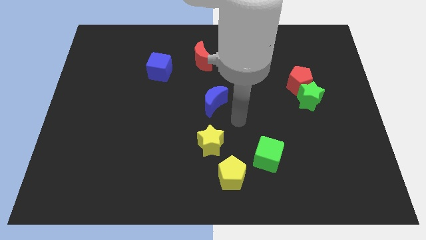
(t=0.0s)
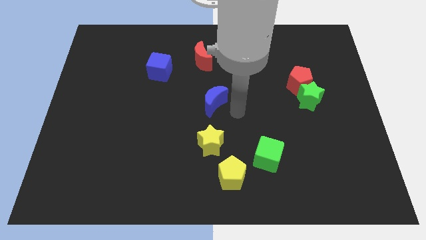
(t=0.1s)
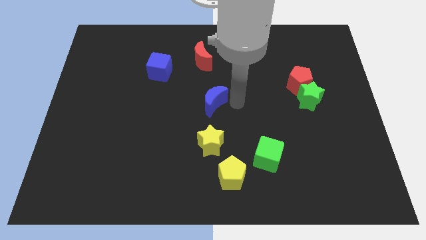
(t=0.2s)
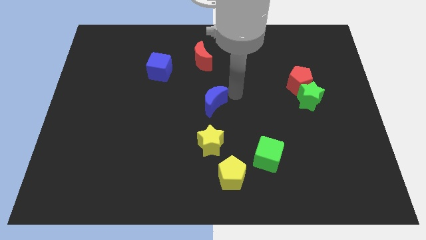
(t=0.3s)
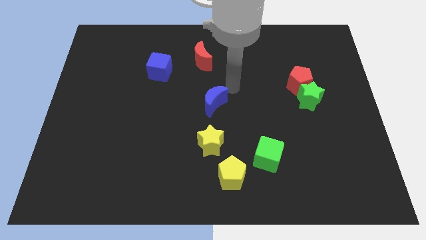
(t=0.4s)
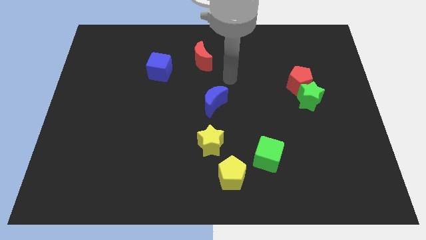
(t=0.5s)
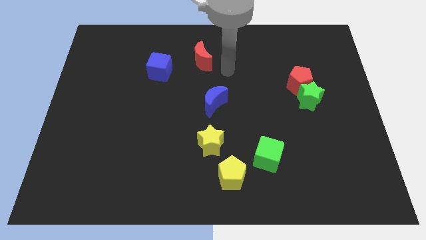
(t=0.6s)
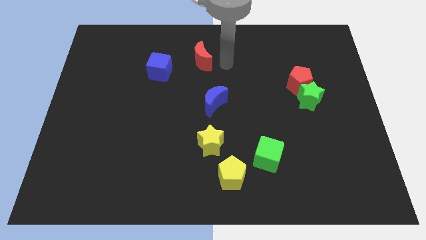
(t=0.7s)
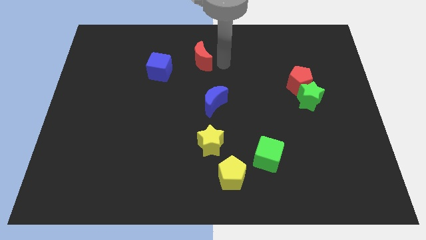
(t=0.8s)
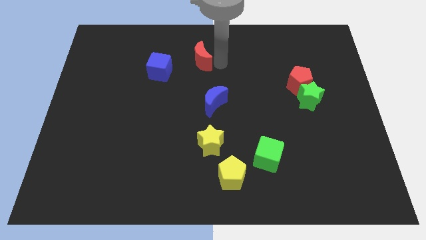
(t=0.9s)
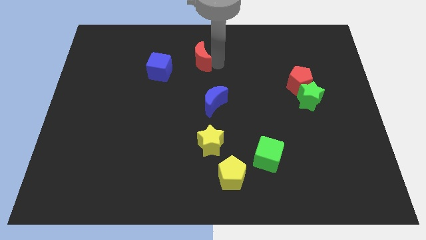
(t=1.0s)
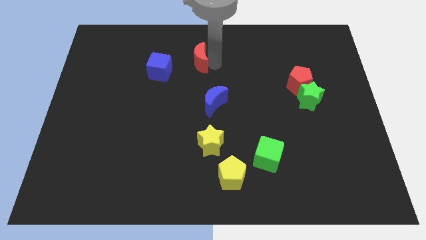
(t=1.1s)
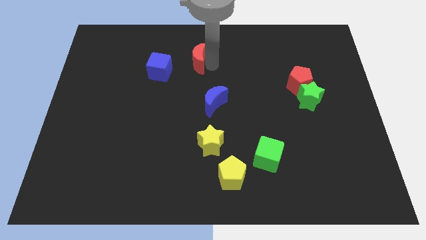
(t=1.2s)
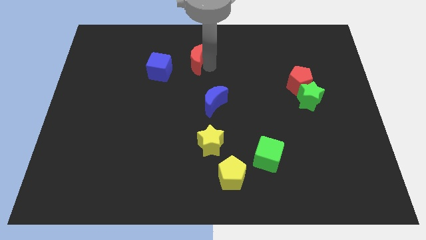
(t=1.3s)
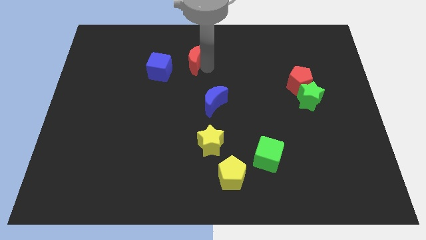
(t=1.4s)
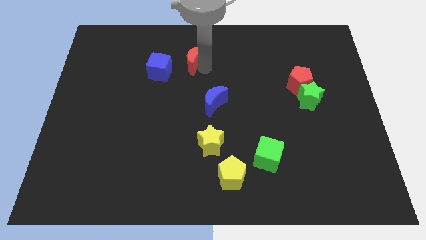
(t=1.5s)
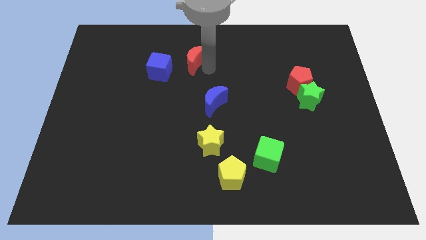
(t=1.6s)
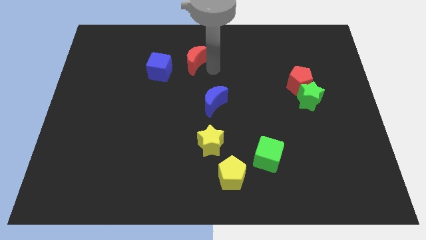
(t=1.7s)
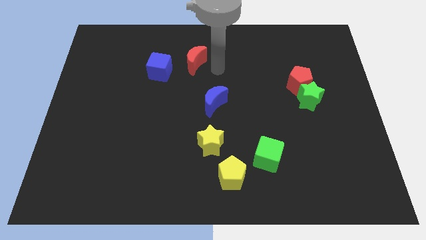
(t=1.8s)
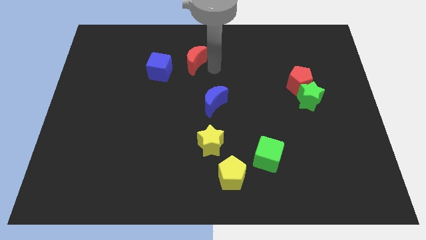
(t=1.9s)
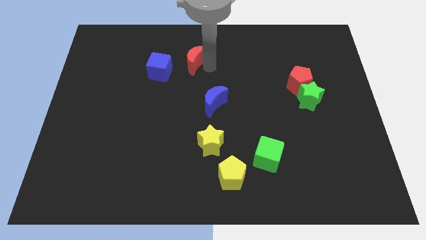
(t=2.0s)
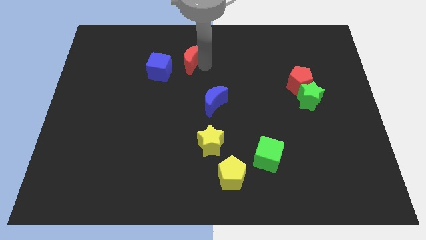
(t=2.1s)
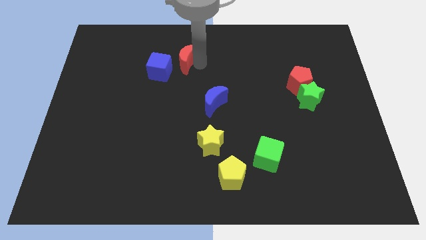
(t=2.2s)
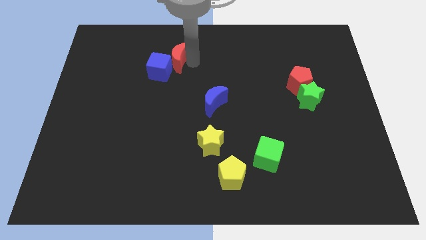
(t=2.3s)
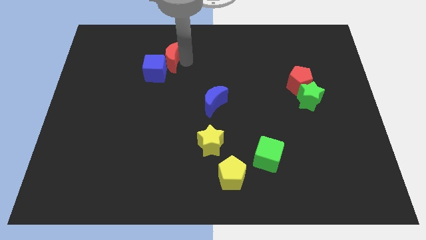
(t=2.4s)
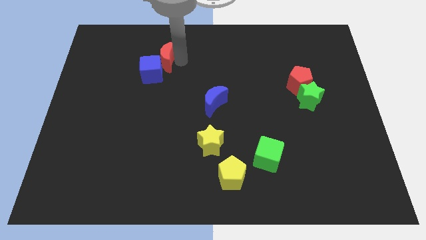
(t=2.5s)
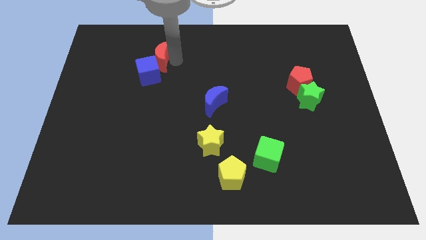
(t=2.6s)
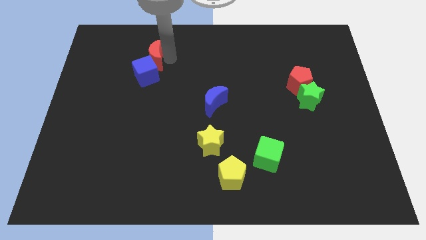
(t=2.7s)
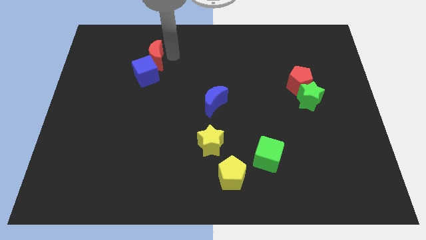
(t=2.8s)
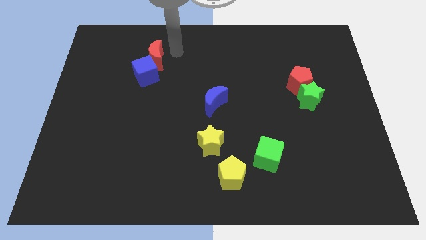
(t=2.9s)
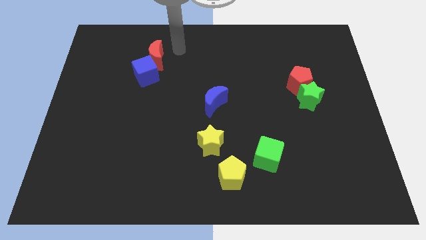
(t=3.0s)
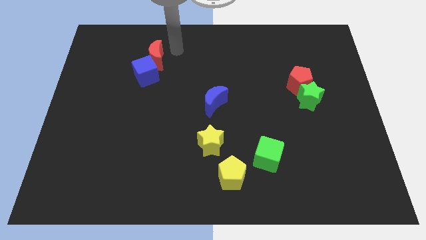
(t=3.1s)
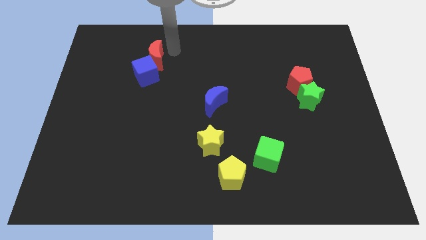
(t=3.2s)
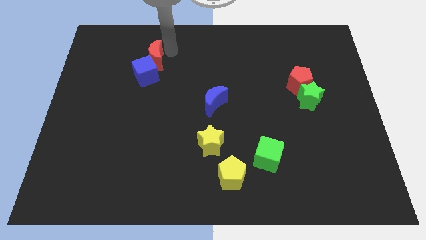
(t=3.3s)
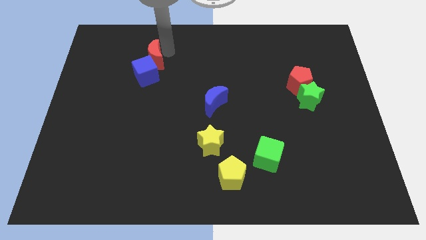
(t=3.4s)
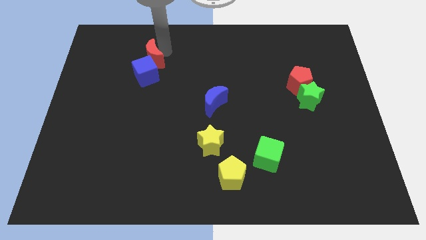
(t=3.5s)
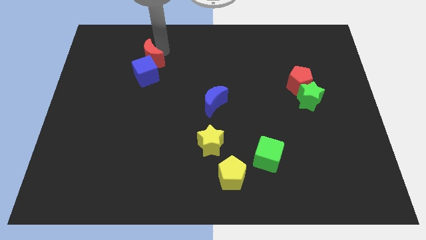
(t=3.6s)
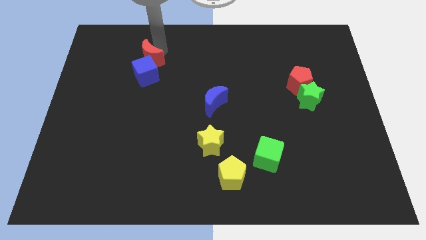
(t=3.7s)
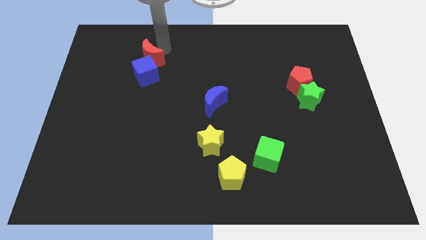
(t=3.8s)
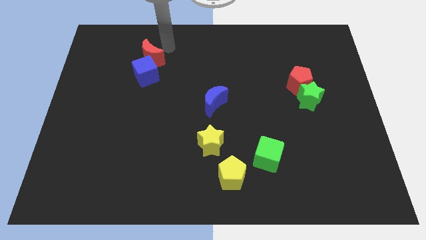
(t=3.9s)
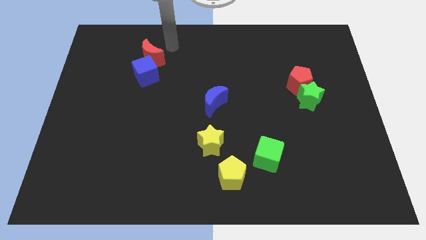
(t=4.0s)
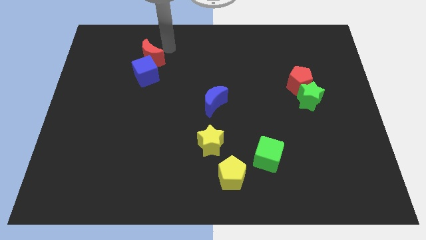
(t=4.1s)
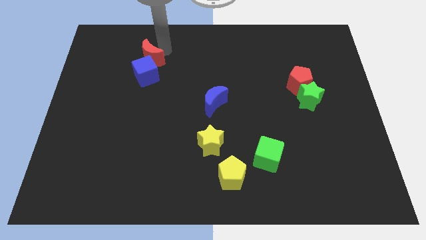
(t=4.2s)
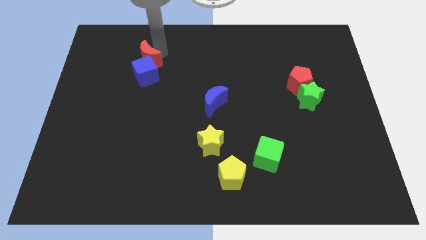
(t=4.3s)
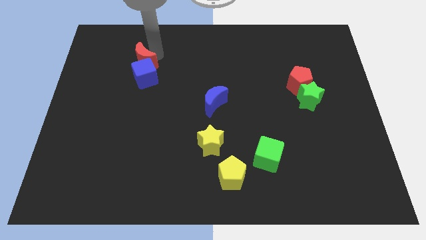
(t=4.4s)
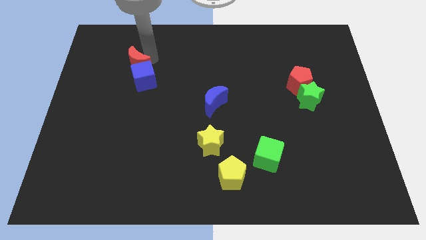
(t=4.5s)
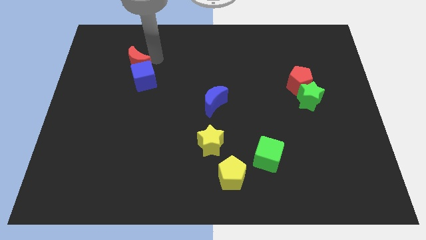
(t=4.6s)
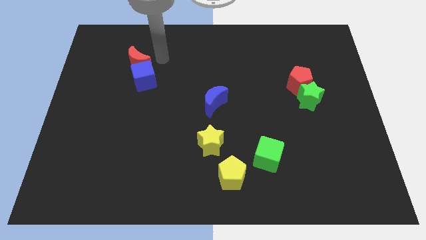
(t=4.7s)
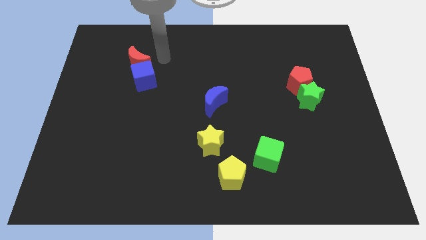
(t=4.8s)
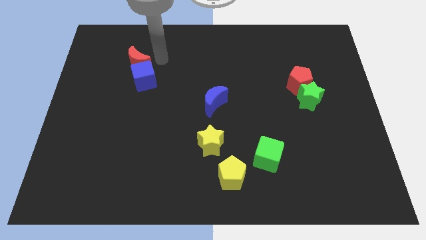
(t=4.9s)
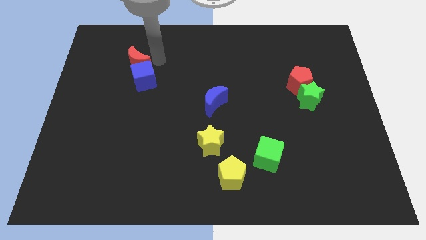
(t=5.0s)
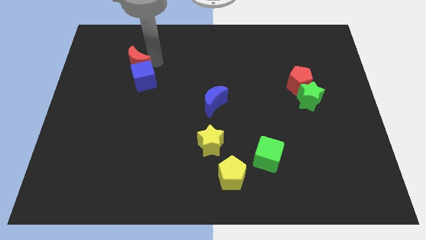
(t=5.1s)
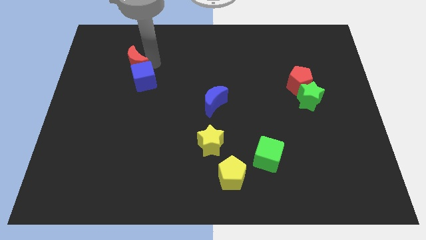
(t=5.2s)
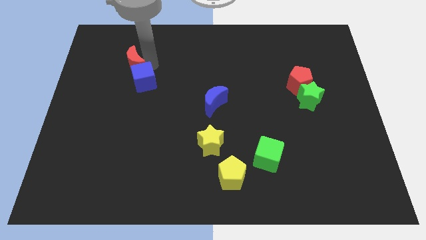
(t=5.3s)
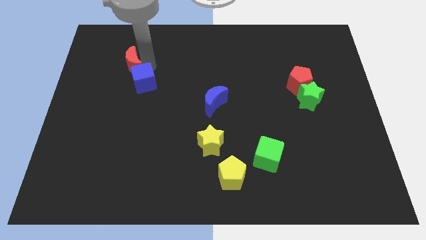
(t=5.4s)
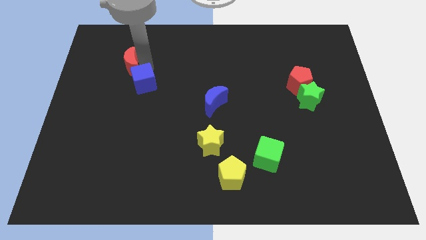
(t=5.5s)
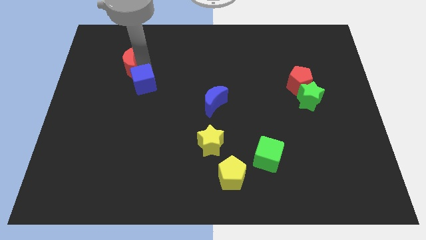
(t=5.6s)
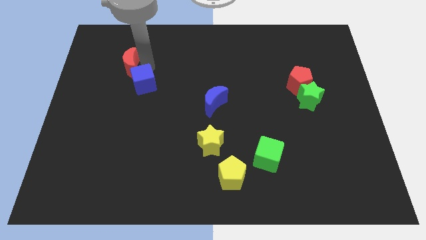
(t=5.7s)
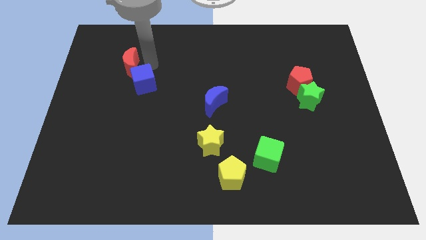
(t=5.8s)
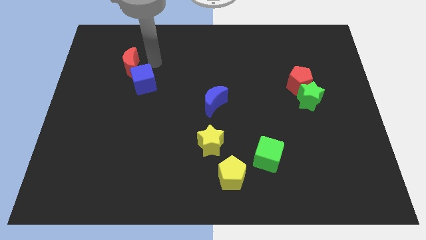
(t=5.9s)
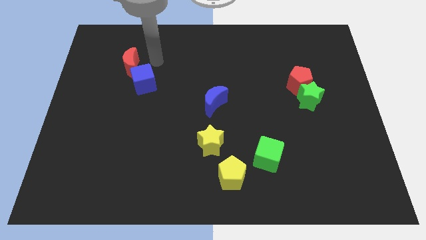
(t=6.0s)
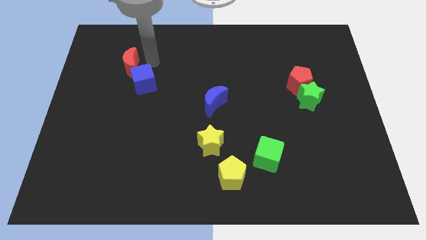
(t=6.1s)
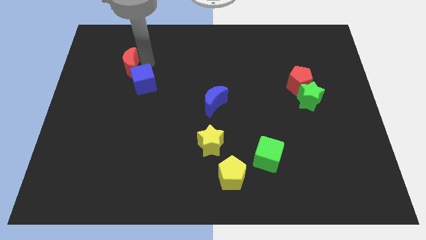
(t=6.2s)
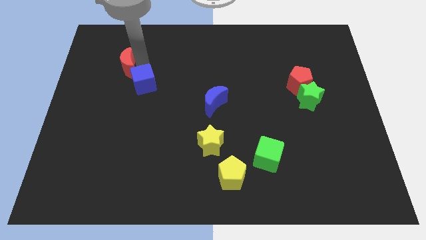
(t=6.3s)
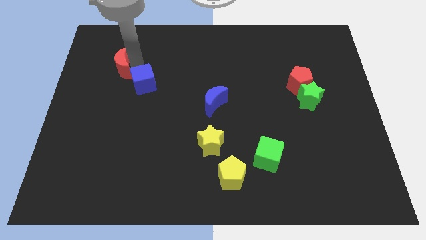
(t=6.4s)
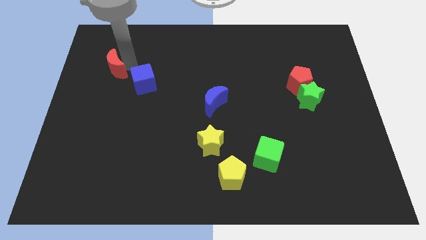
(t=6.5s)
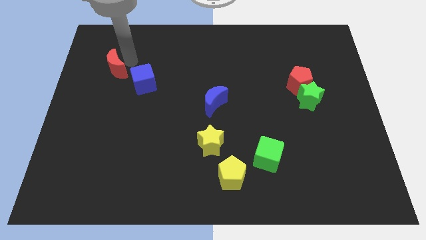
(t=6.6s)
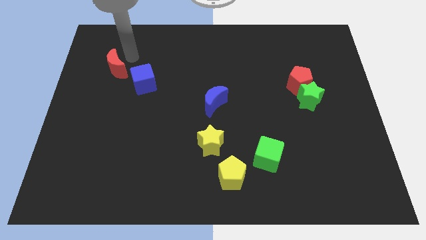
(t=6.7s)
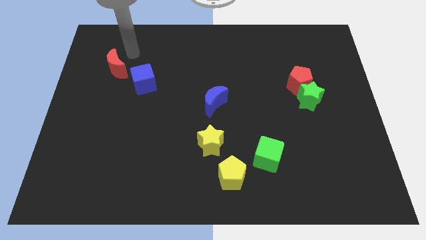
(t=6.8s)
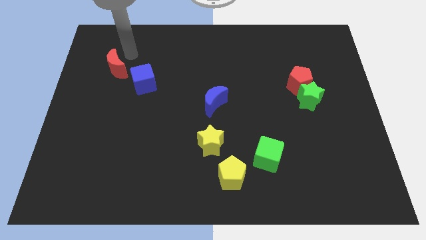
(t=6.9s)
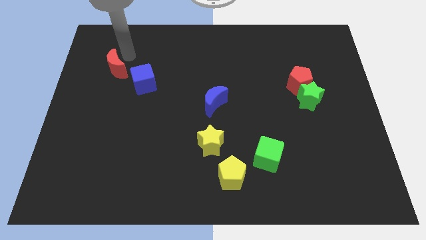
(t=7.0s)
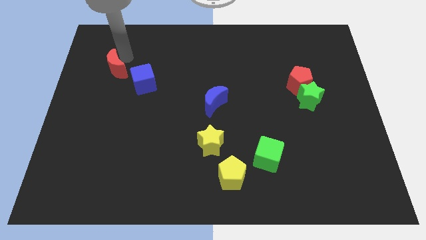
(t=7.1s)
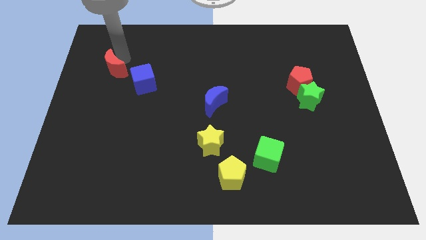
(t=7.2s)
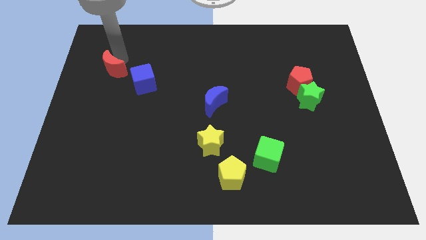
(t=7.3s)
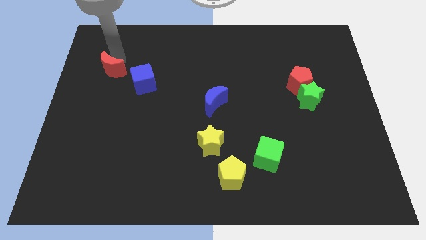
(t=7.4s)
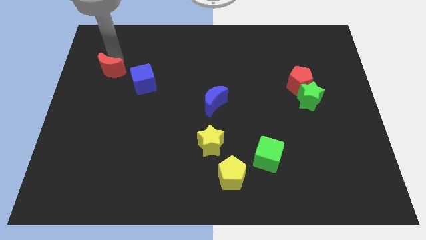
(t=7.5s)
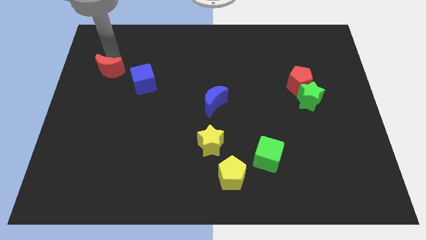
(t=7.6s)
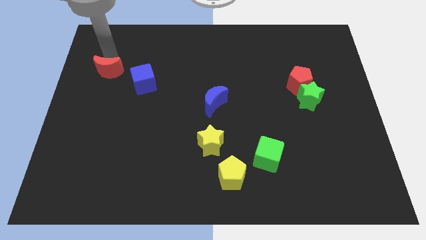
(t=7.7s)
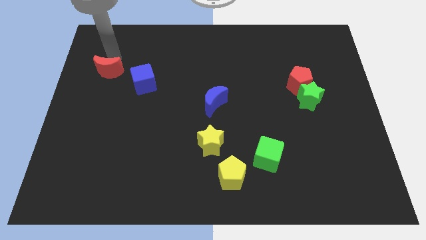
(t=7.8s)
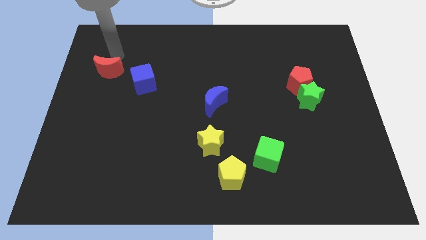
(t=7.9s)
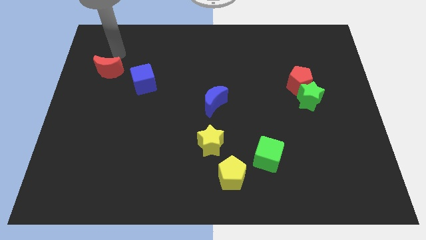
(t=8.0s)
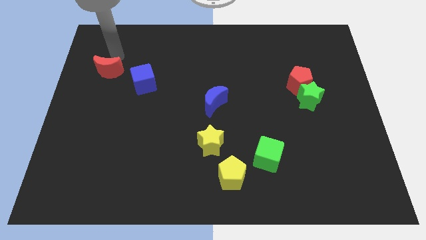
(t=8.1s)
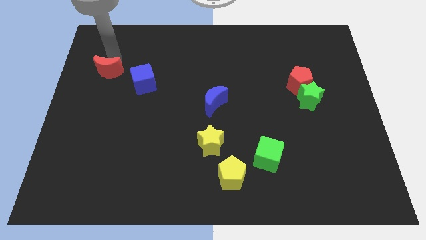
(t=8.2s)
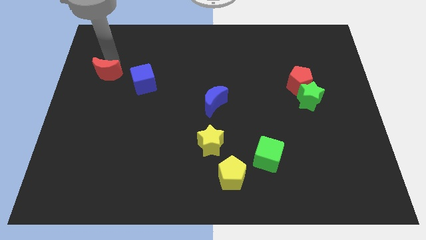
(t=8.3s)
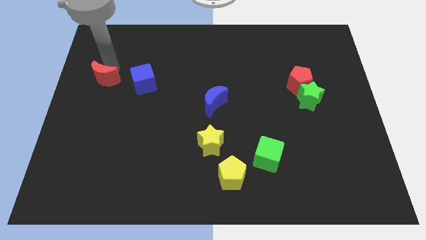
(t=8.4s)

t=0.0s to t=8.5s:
push the red moon to the center left
